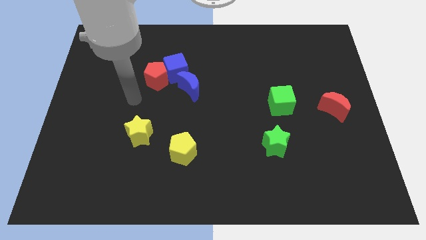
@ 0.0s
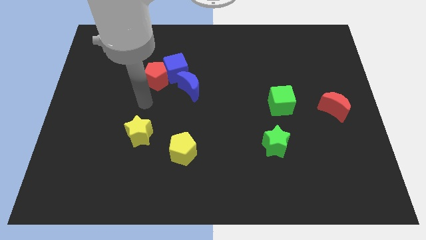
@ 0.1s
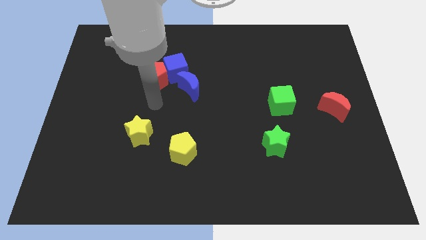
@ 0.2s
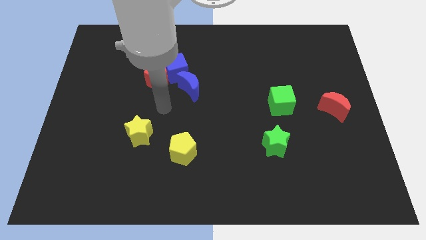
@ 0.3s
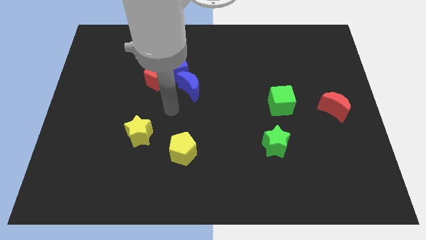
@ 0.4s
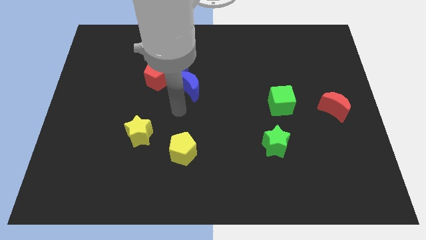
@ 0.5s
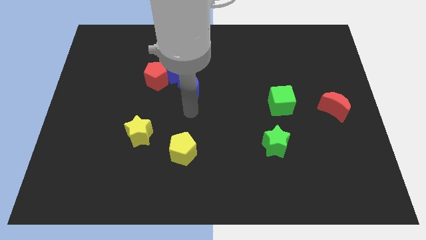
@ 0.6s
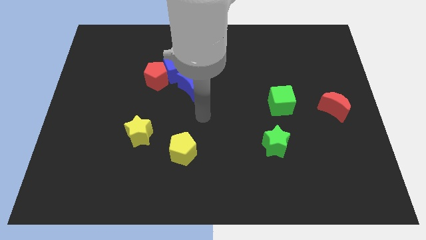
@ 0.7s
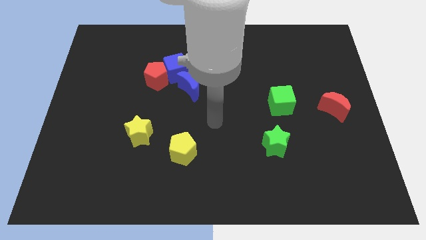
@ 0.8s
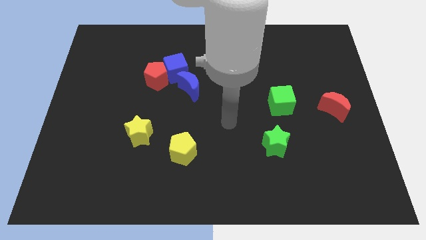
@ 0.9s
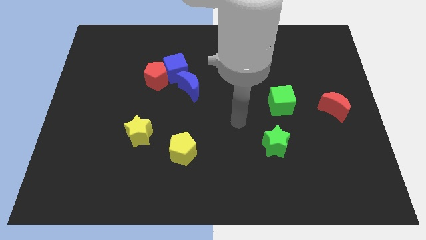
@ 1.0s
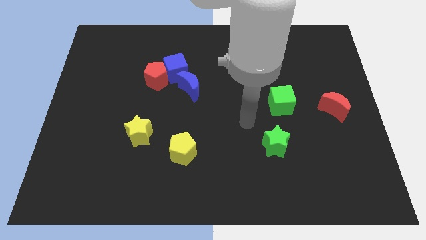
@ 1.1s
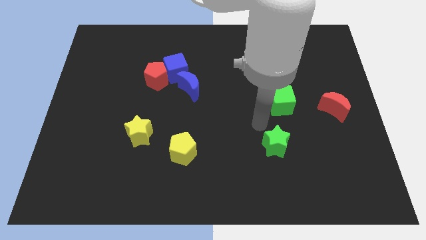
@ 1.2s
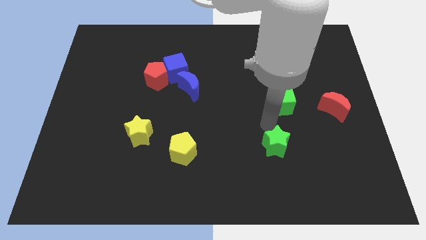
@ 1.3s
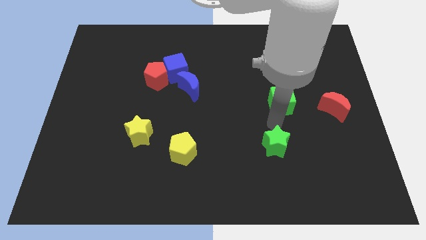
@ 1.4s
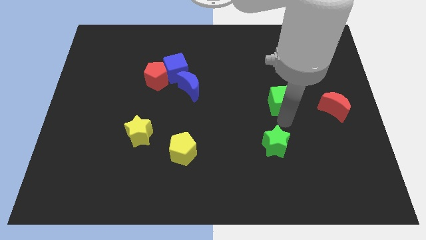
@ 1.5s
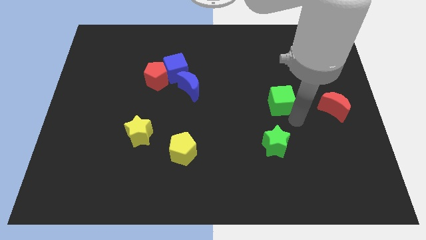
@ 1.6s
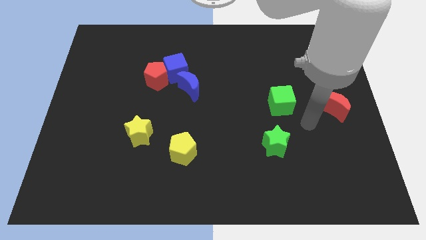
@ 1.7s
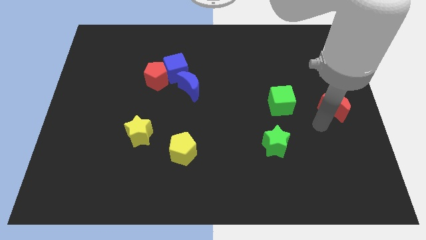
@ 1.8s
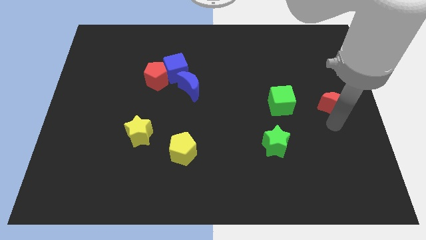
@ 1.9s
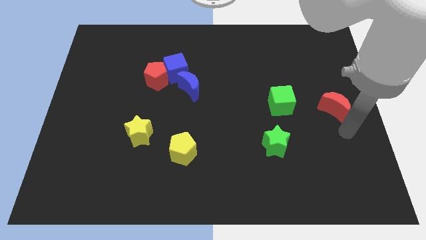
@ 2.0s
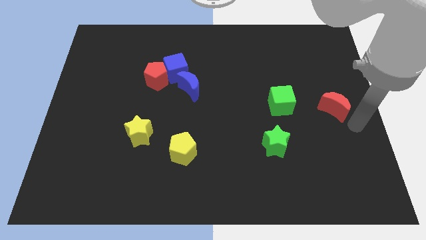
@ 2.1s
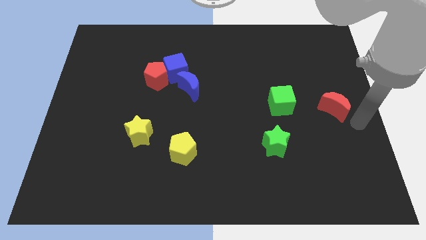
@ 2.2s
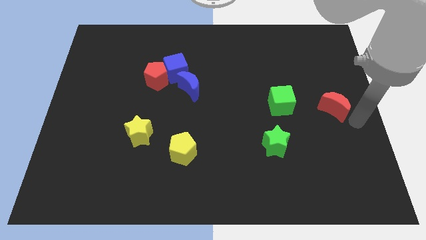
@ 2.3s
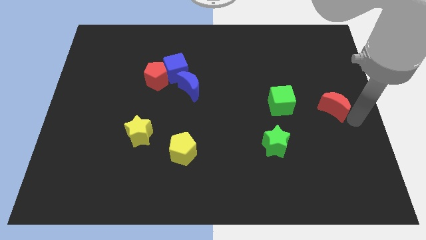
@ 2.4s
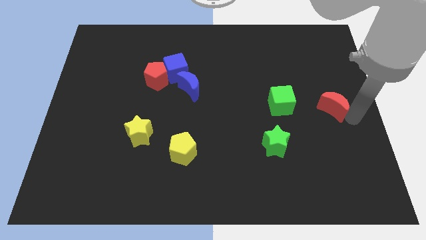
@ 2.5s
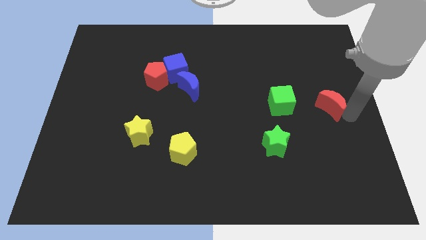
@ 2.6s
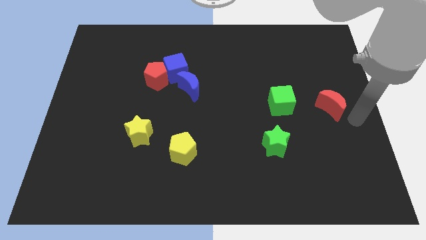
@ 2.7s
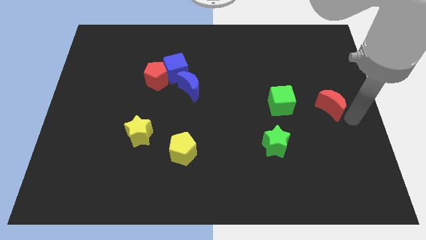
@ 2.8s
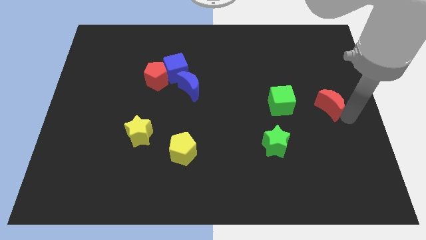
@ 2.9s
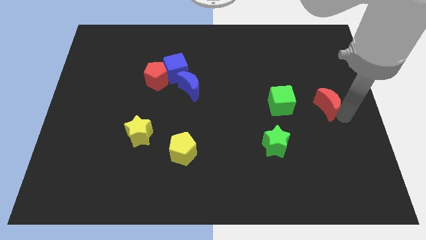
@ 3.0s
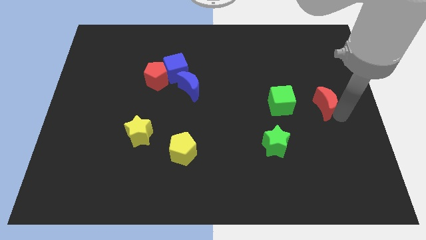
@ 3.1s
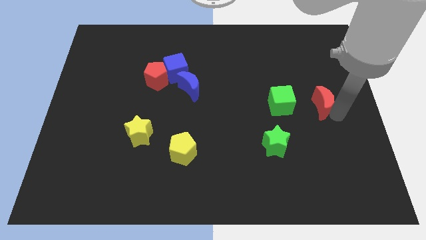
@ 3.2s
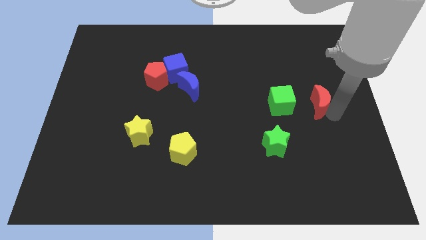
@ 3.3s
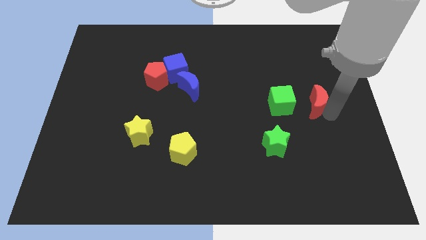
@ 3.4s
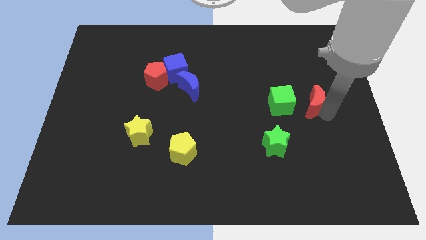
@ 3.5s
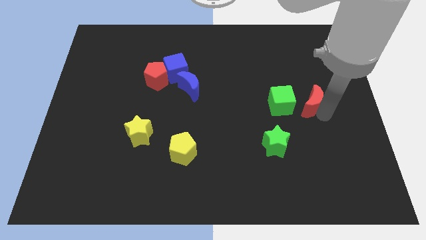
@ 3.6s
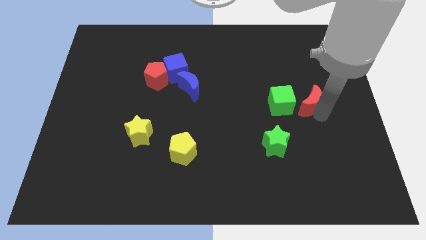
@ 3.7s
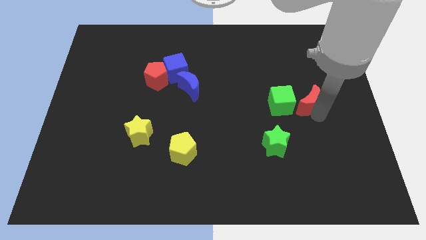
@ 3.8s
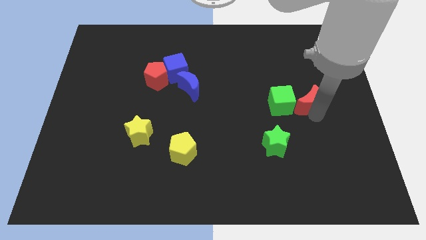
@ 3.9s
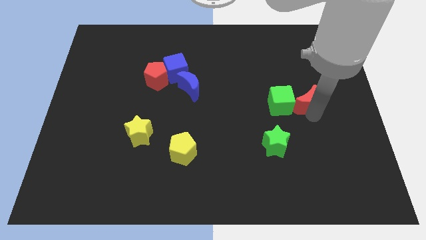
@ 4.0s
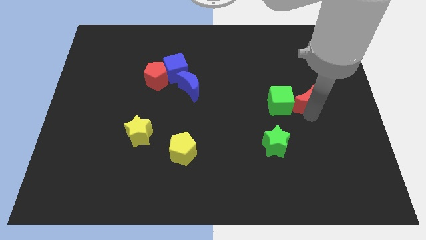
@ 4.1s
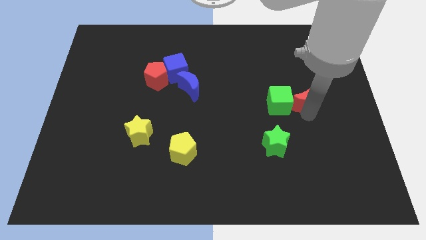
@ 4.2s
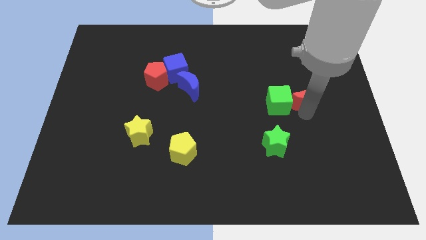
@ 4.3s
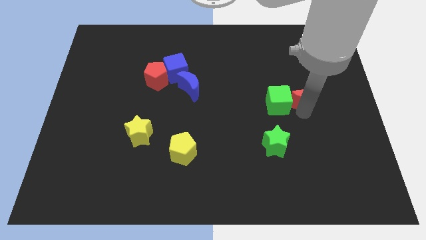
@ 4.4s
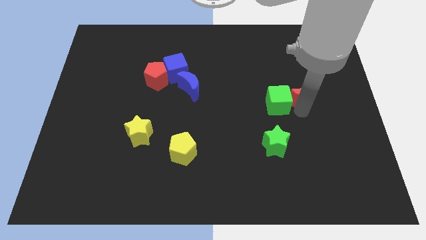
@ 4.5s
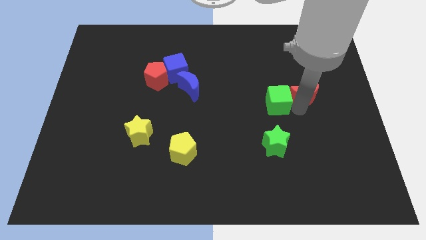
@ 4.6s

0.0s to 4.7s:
slightly slide the red moon upwards and then to the left

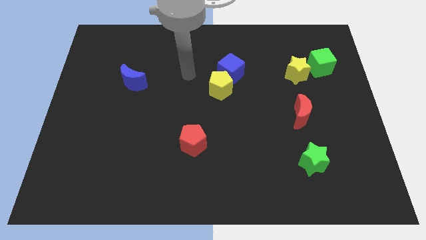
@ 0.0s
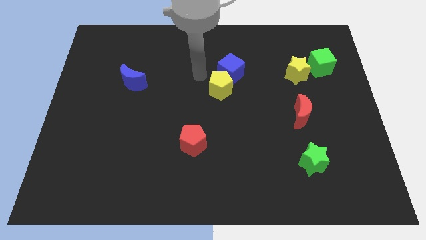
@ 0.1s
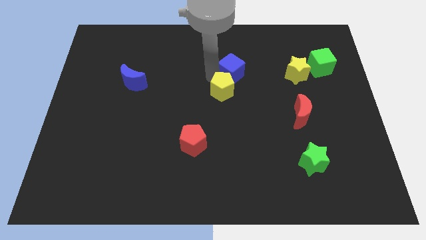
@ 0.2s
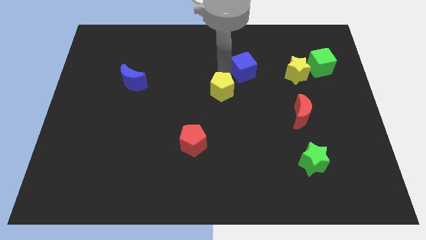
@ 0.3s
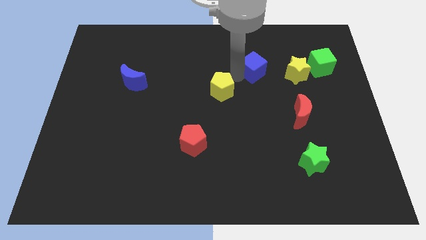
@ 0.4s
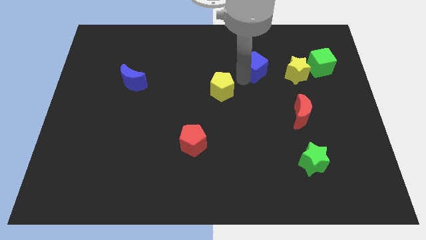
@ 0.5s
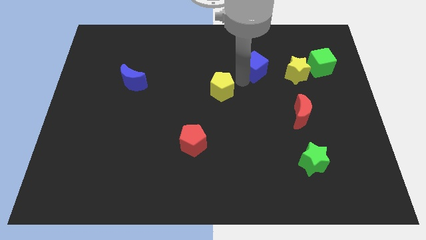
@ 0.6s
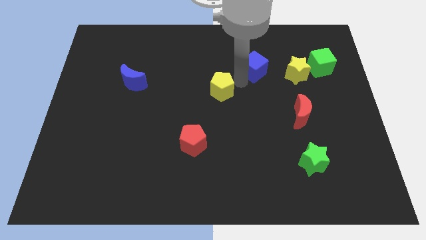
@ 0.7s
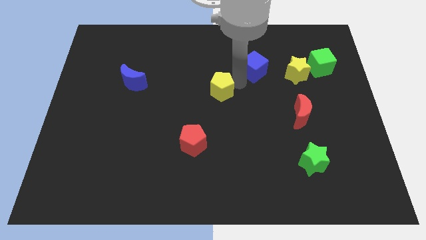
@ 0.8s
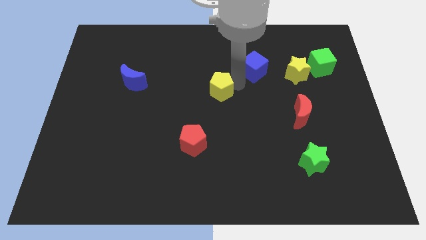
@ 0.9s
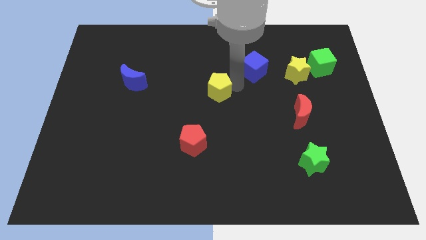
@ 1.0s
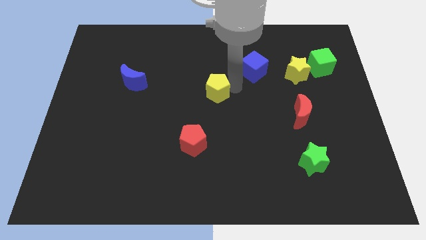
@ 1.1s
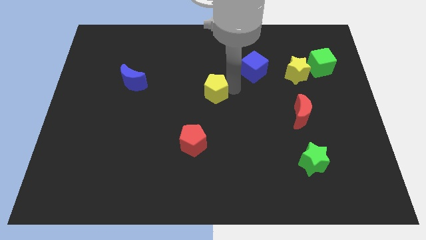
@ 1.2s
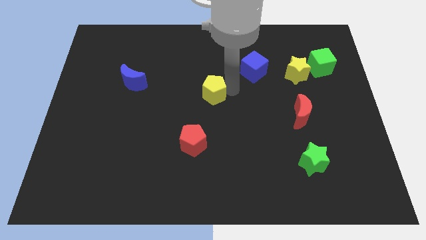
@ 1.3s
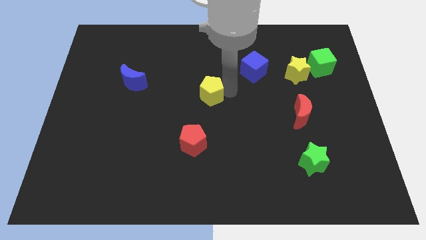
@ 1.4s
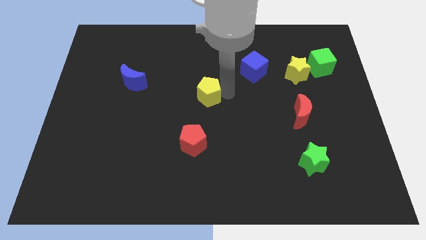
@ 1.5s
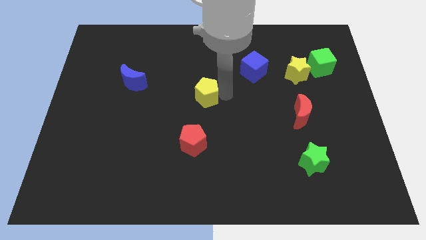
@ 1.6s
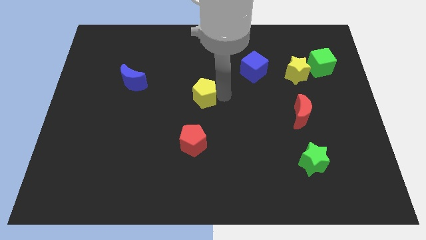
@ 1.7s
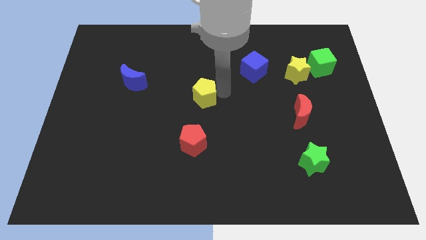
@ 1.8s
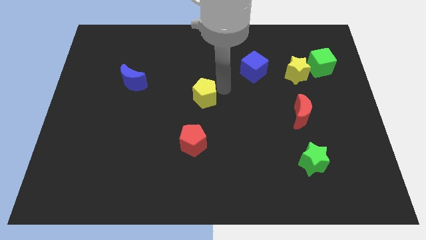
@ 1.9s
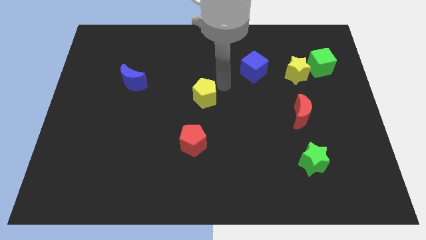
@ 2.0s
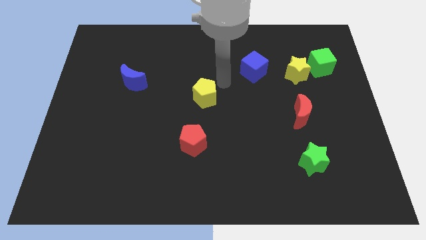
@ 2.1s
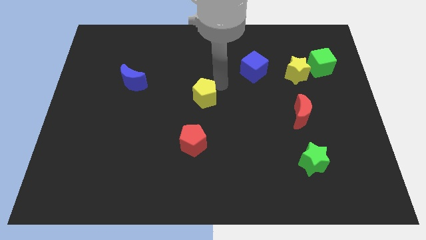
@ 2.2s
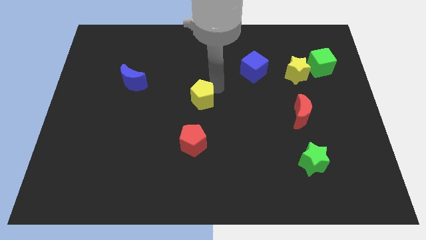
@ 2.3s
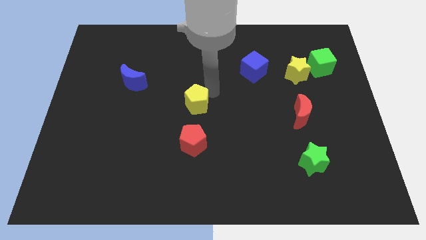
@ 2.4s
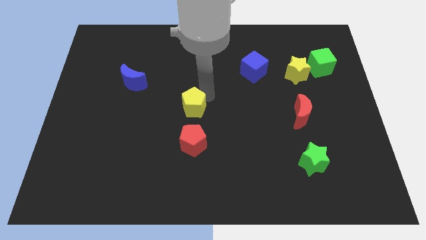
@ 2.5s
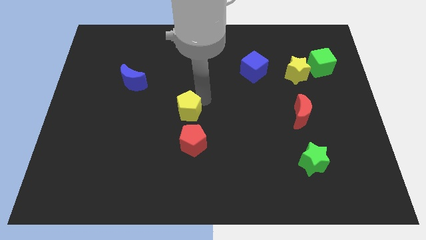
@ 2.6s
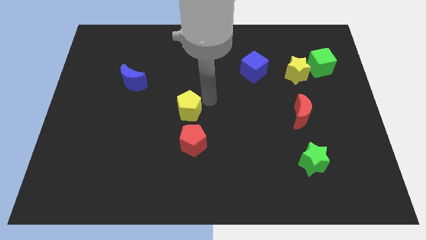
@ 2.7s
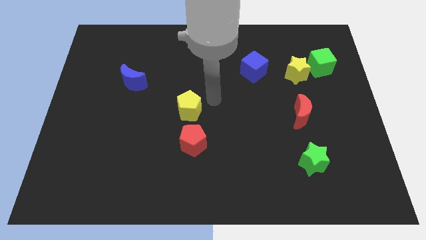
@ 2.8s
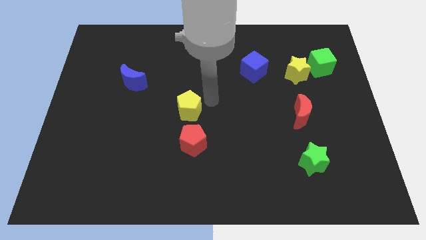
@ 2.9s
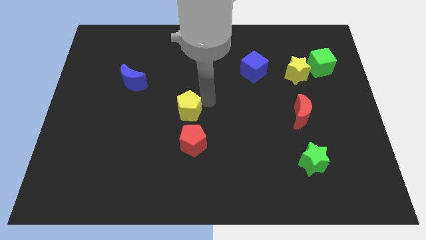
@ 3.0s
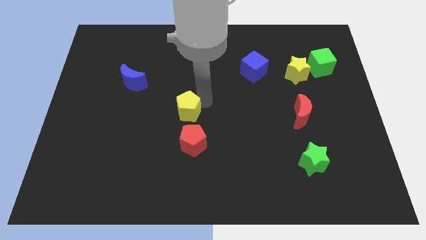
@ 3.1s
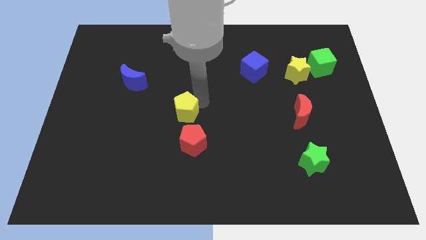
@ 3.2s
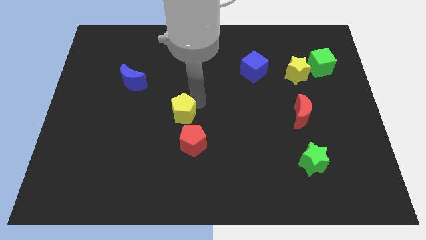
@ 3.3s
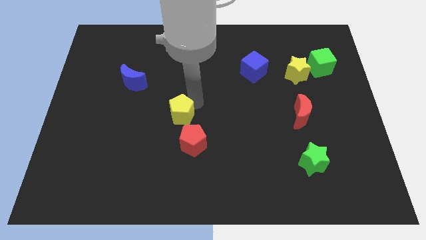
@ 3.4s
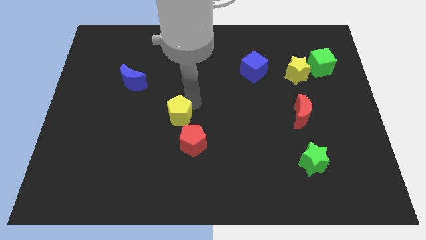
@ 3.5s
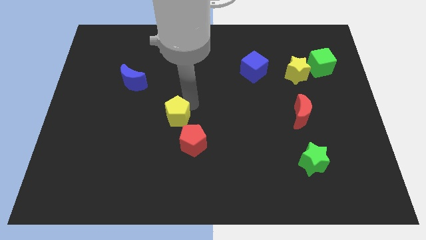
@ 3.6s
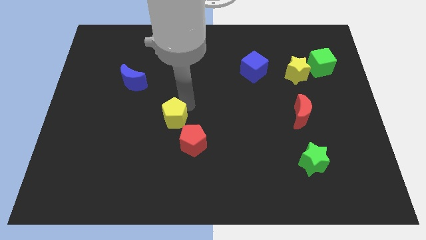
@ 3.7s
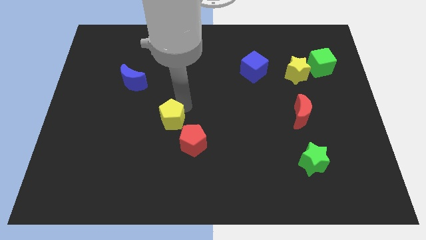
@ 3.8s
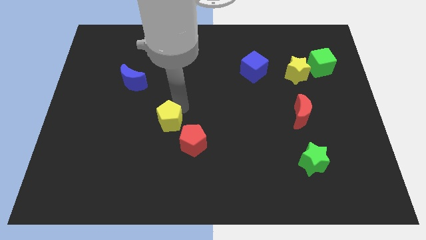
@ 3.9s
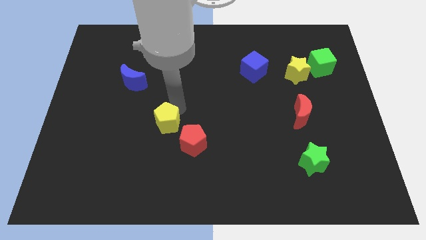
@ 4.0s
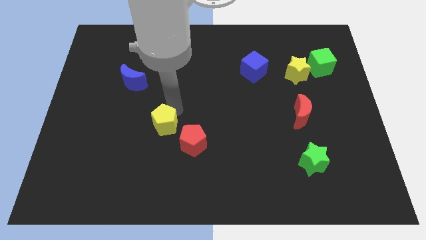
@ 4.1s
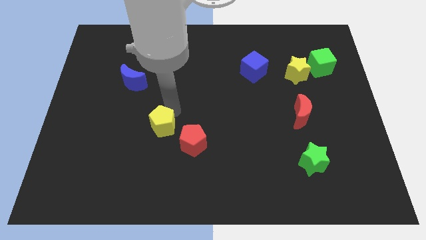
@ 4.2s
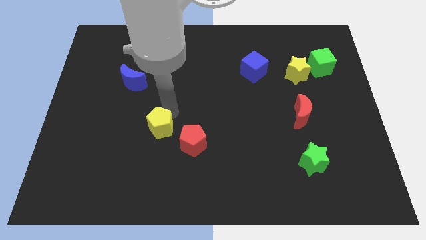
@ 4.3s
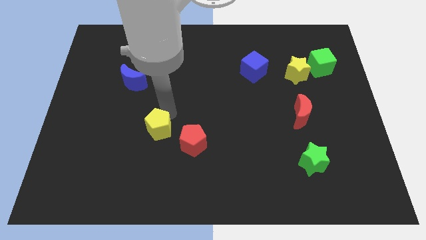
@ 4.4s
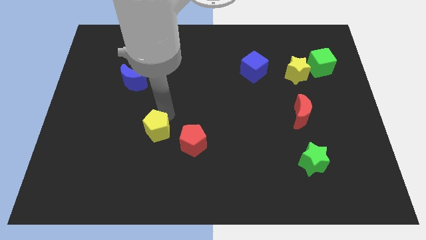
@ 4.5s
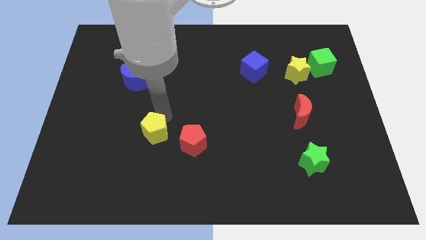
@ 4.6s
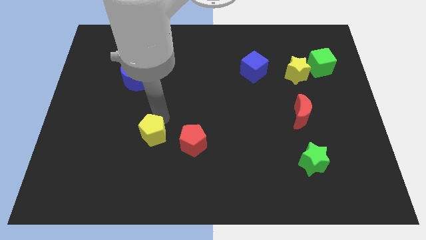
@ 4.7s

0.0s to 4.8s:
slide the yellow pentagon downwards and then to the left
